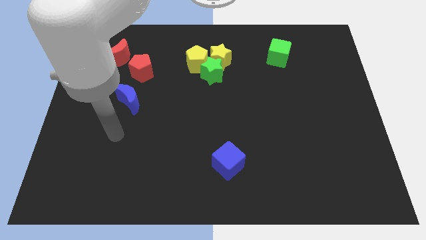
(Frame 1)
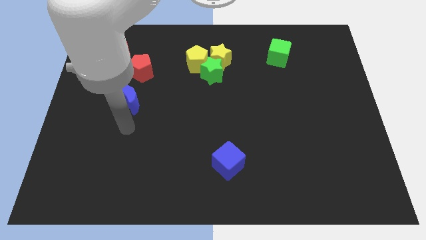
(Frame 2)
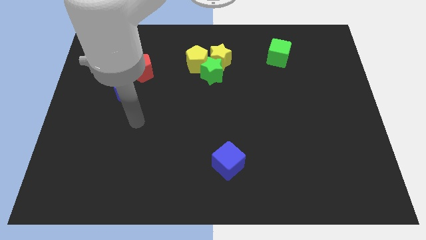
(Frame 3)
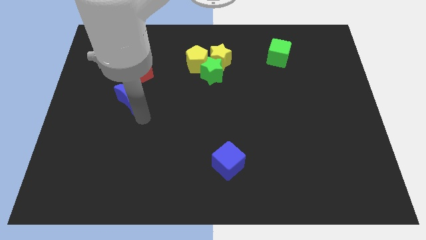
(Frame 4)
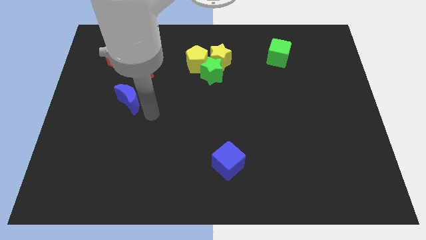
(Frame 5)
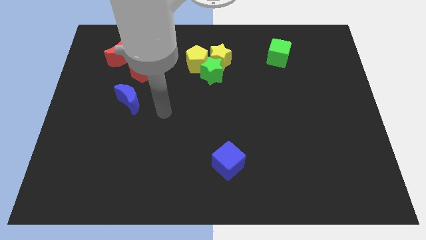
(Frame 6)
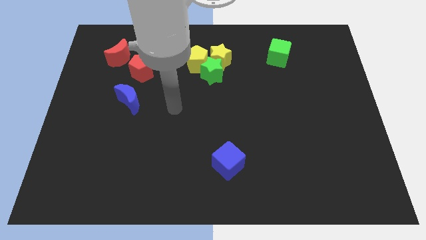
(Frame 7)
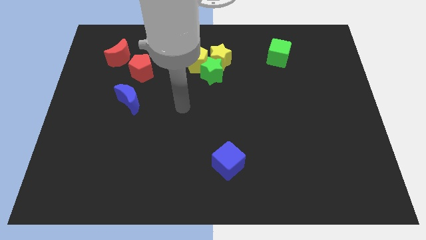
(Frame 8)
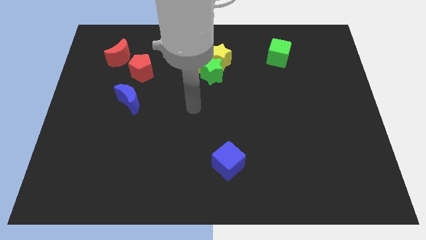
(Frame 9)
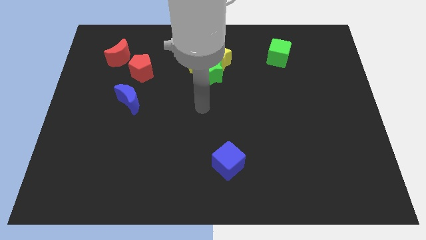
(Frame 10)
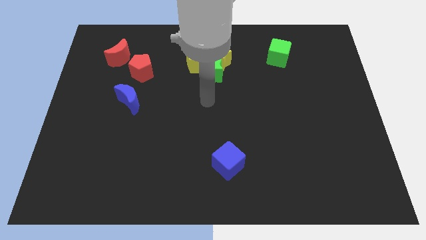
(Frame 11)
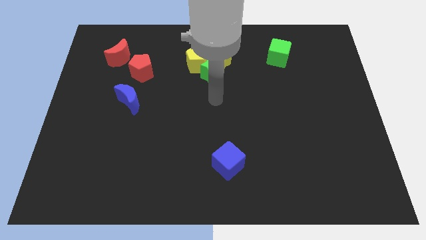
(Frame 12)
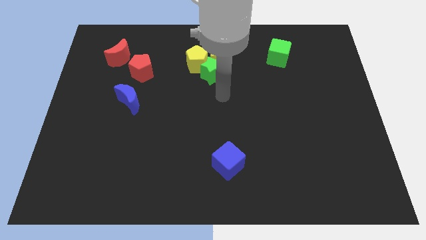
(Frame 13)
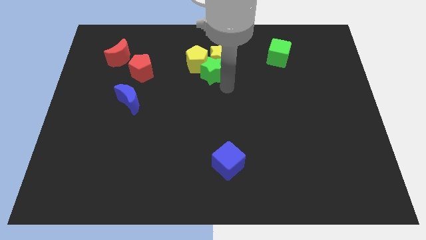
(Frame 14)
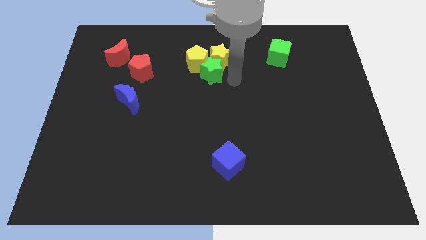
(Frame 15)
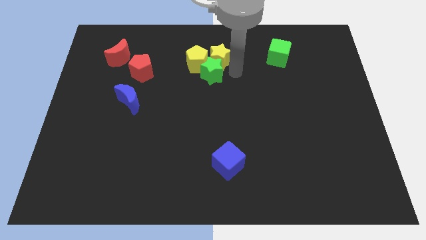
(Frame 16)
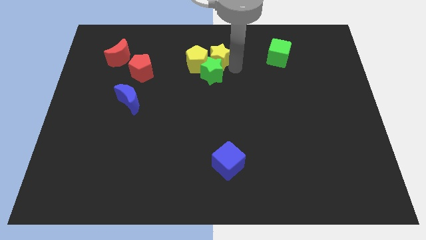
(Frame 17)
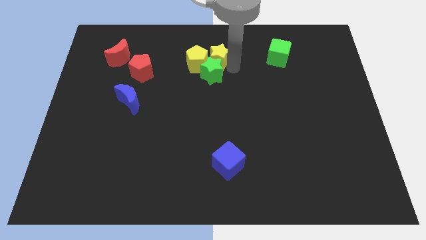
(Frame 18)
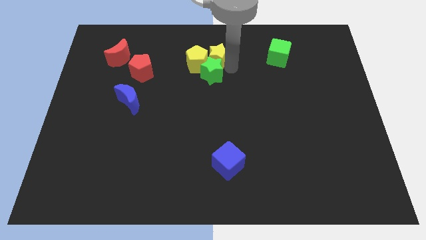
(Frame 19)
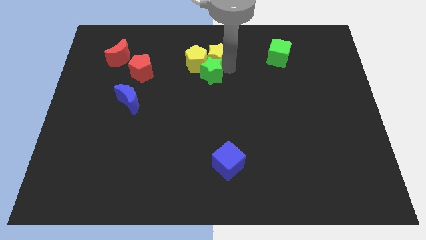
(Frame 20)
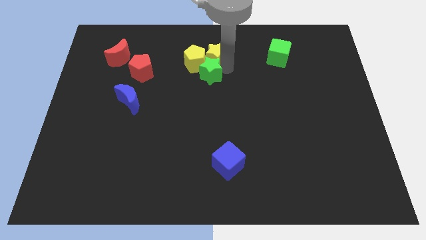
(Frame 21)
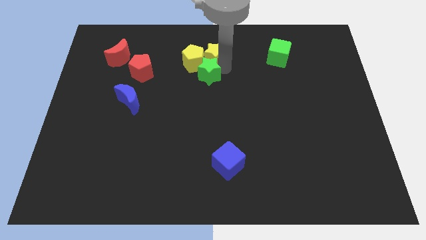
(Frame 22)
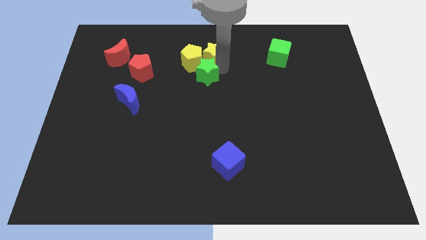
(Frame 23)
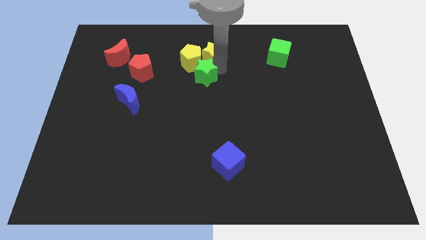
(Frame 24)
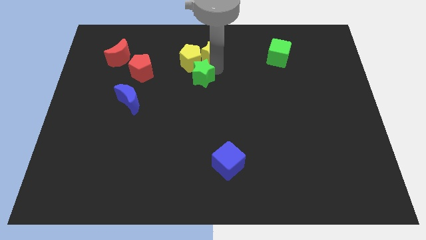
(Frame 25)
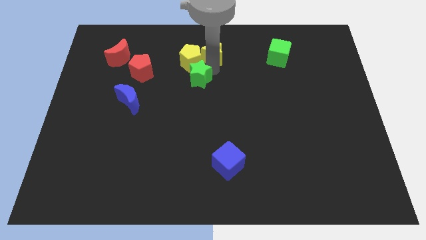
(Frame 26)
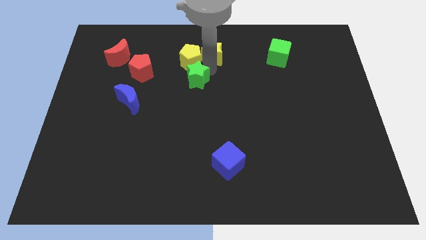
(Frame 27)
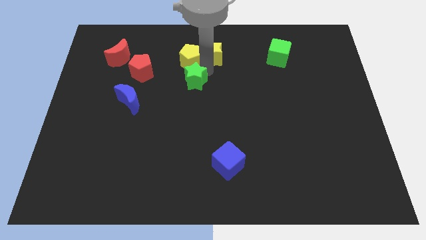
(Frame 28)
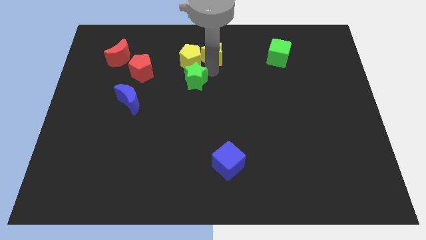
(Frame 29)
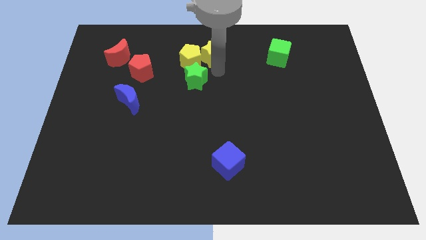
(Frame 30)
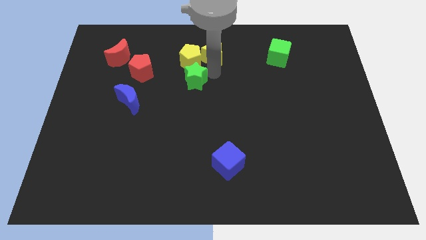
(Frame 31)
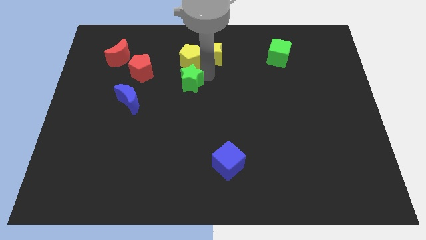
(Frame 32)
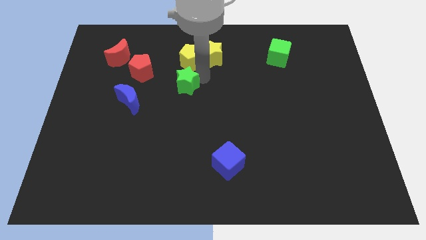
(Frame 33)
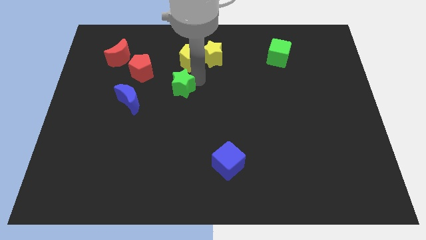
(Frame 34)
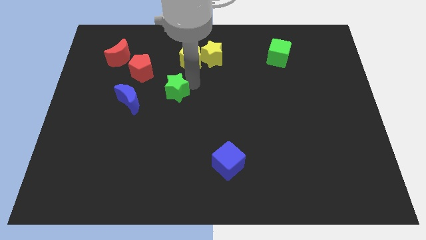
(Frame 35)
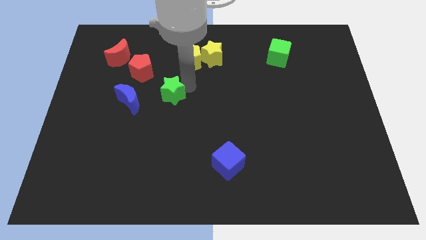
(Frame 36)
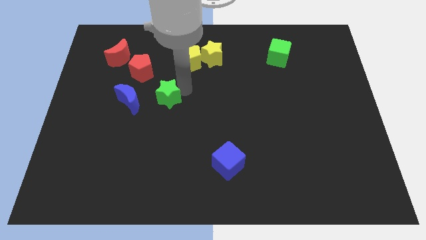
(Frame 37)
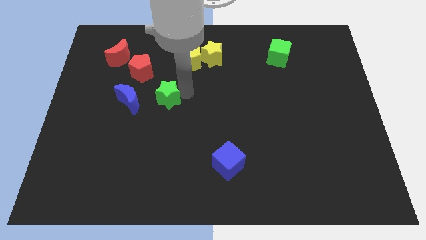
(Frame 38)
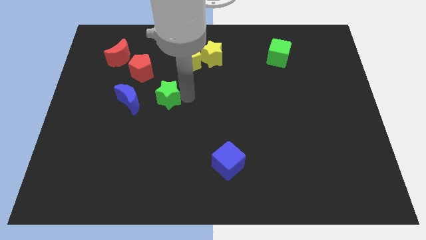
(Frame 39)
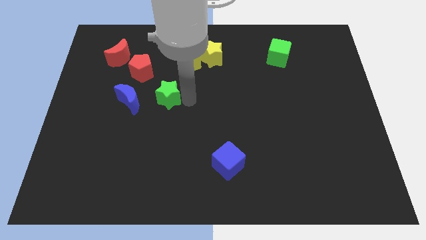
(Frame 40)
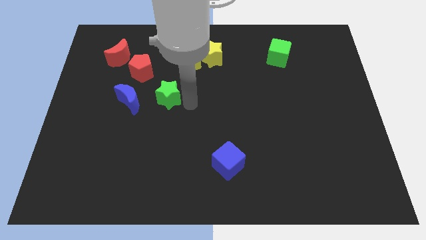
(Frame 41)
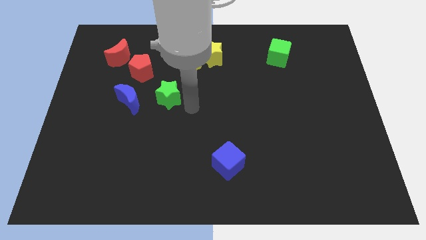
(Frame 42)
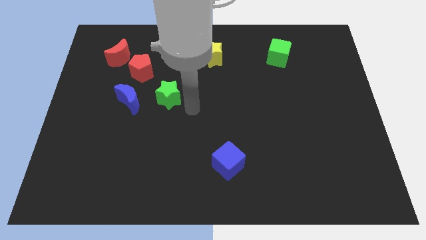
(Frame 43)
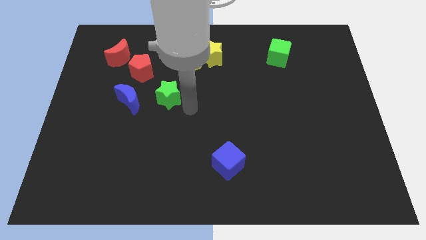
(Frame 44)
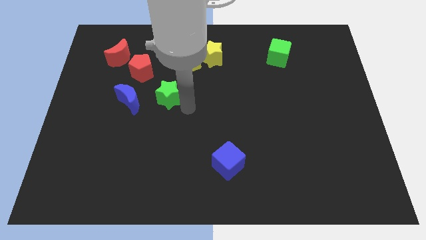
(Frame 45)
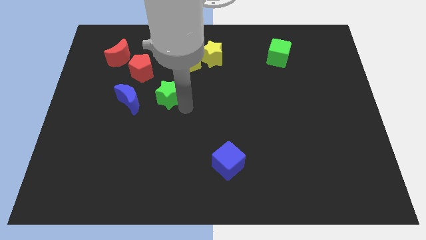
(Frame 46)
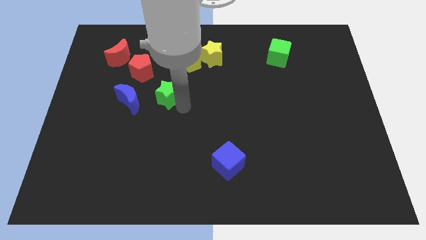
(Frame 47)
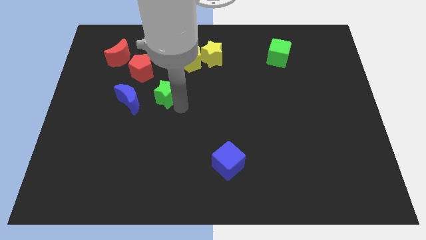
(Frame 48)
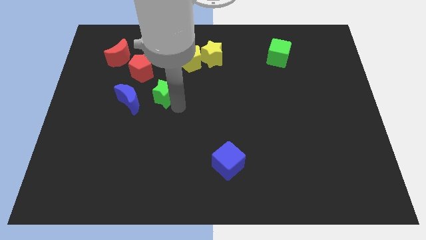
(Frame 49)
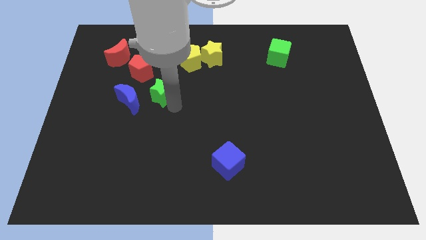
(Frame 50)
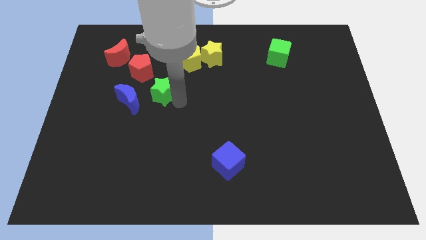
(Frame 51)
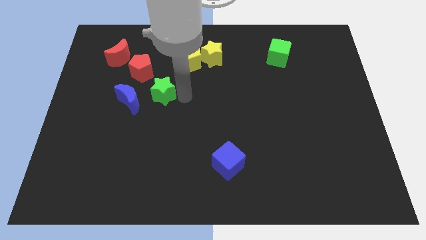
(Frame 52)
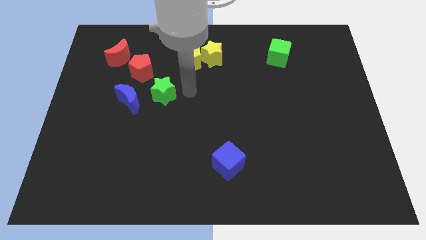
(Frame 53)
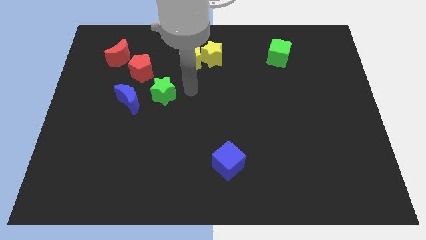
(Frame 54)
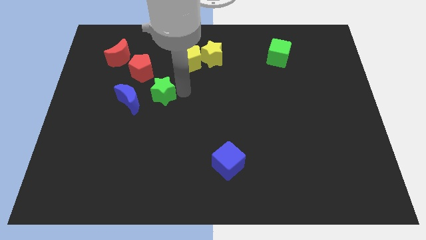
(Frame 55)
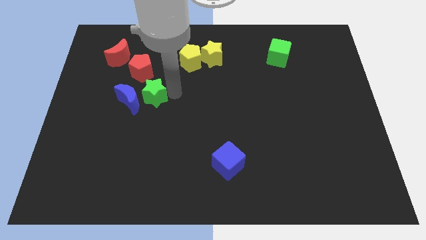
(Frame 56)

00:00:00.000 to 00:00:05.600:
push the green star next to the blue moon
